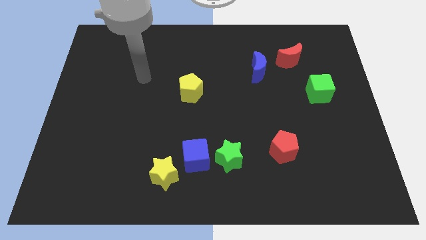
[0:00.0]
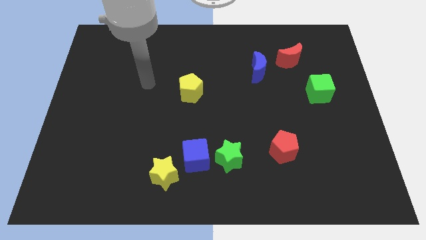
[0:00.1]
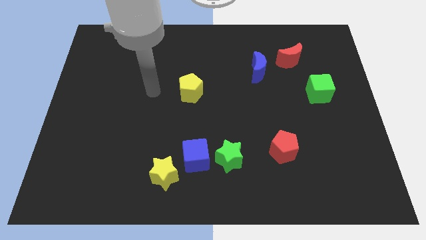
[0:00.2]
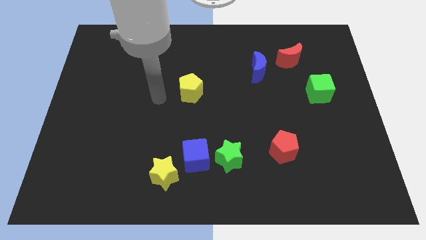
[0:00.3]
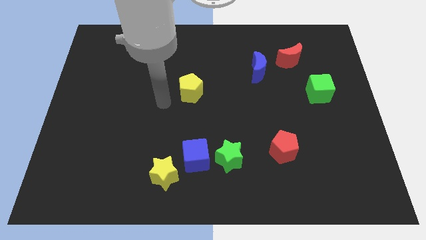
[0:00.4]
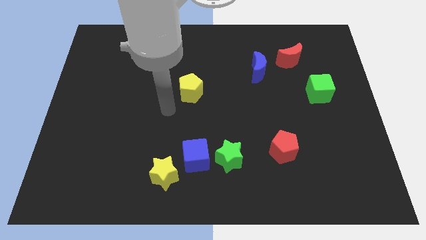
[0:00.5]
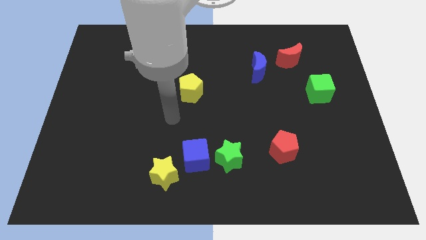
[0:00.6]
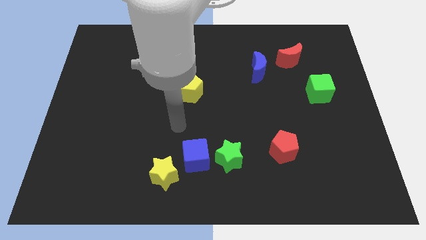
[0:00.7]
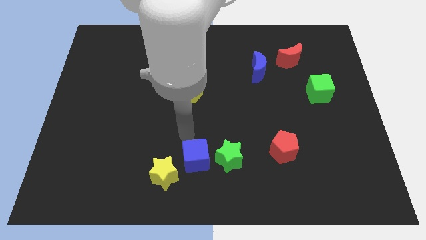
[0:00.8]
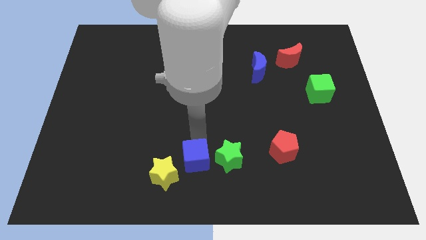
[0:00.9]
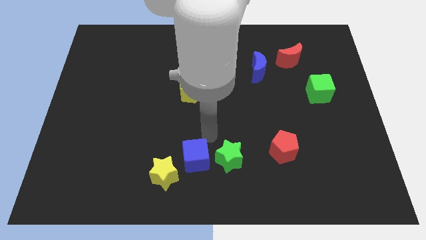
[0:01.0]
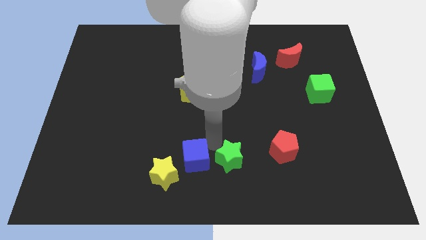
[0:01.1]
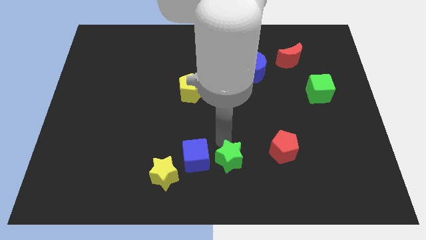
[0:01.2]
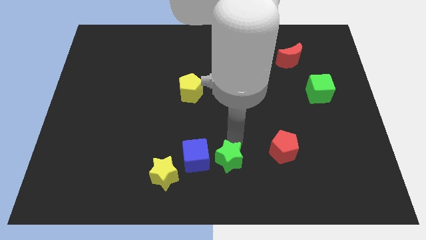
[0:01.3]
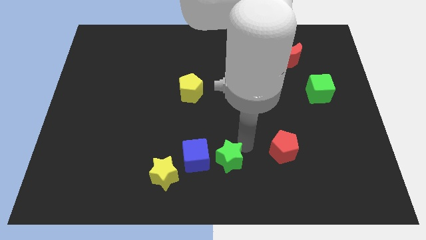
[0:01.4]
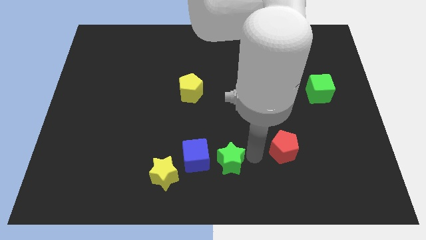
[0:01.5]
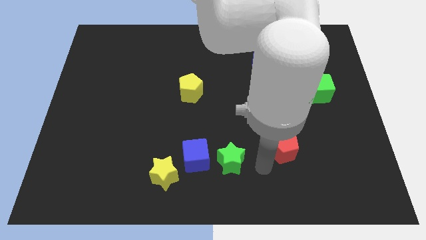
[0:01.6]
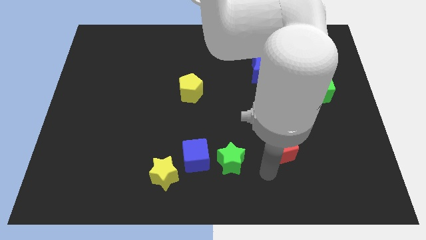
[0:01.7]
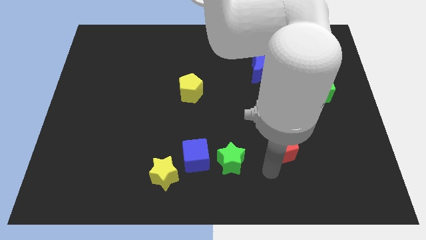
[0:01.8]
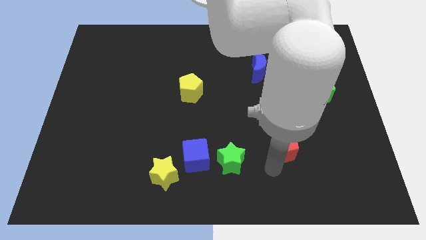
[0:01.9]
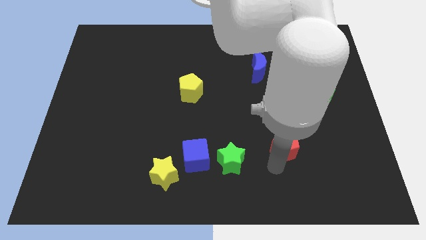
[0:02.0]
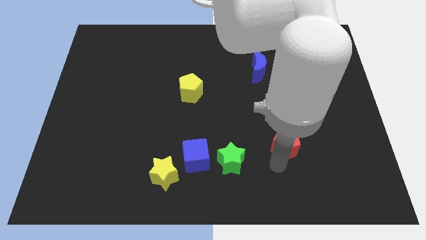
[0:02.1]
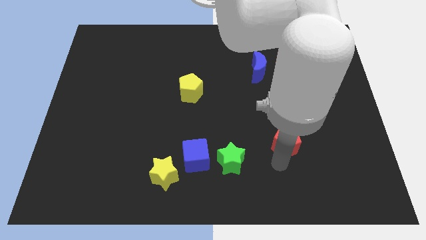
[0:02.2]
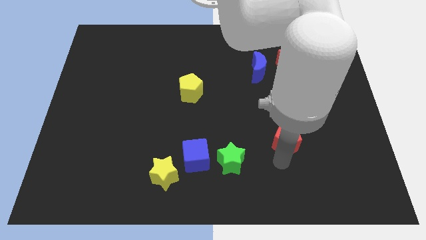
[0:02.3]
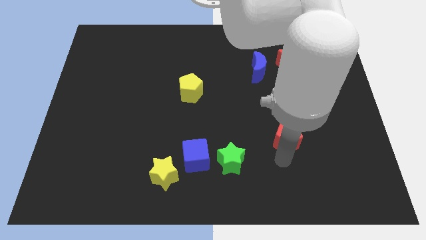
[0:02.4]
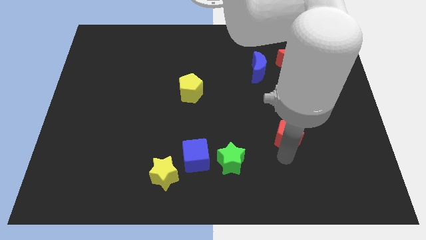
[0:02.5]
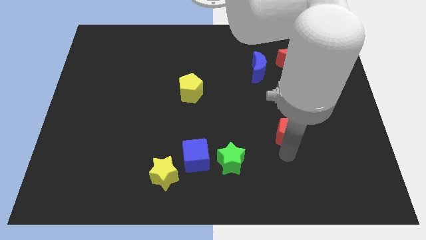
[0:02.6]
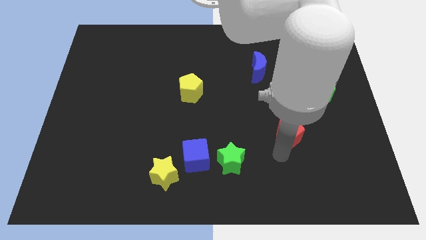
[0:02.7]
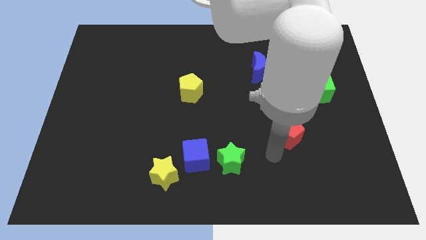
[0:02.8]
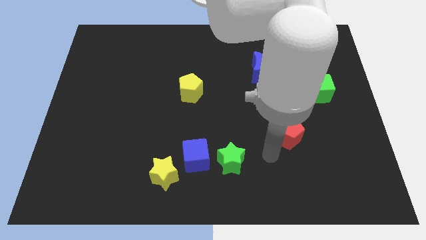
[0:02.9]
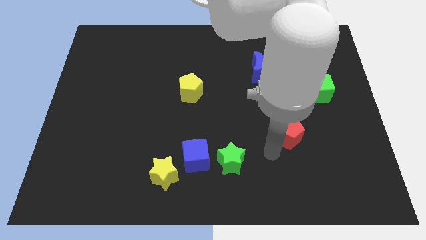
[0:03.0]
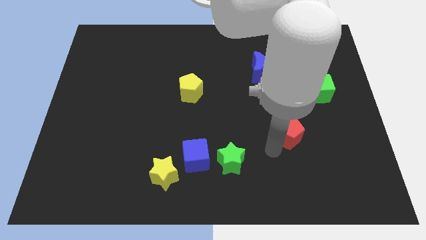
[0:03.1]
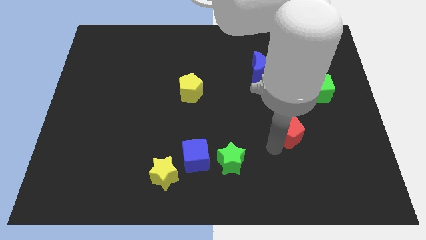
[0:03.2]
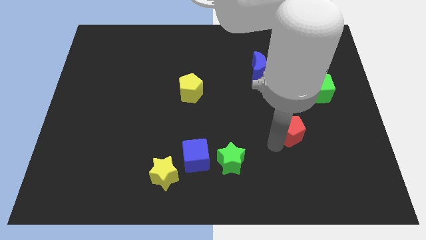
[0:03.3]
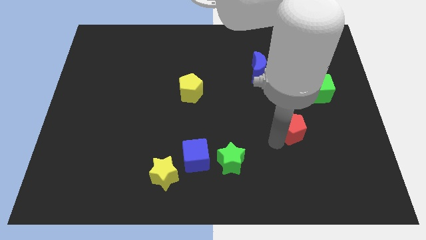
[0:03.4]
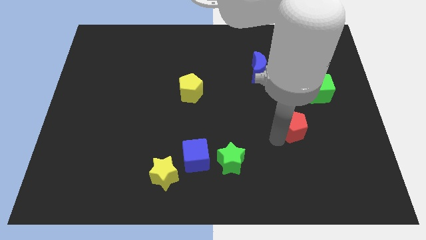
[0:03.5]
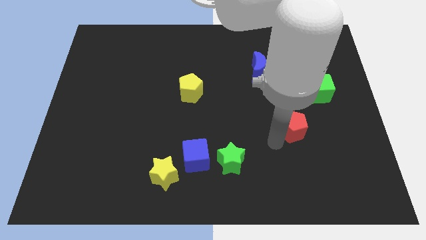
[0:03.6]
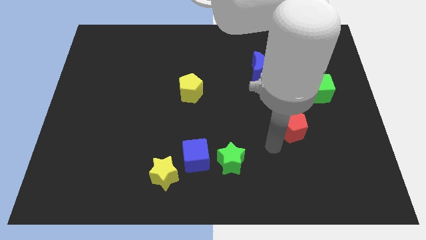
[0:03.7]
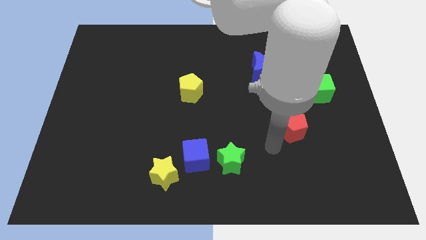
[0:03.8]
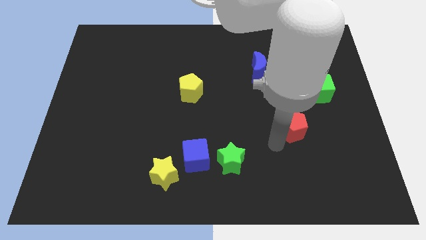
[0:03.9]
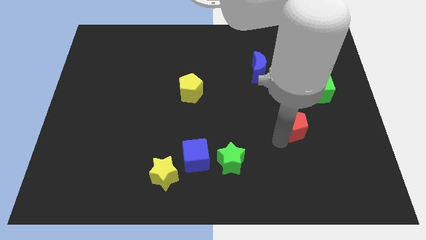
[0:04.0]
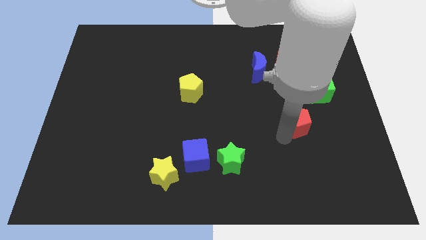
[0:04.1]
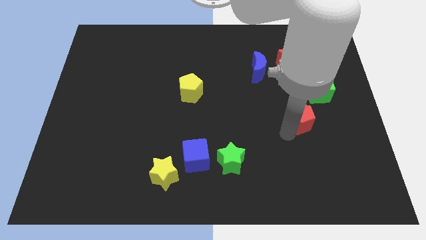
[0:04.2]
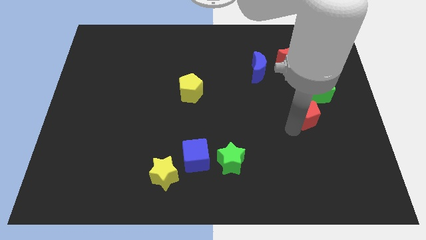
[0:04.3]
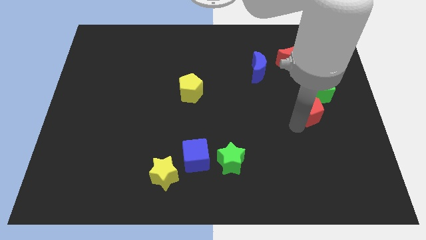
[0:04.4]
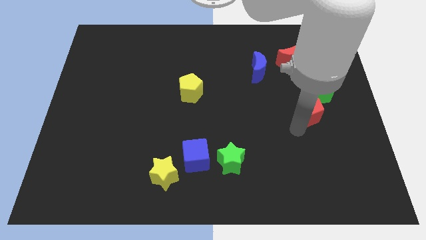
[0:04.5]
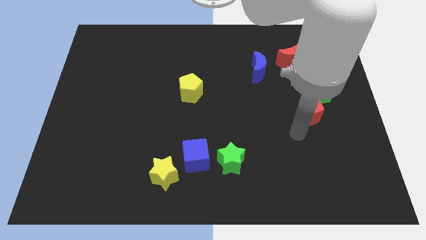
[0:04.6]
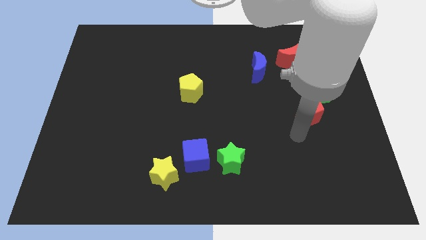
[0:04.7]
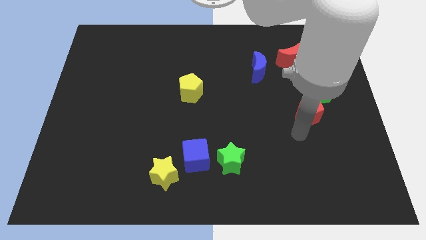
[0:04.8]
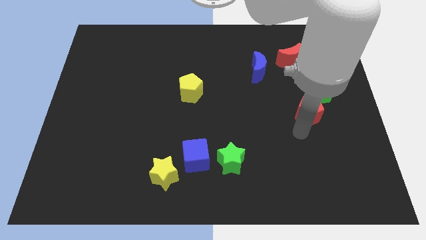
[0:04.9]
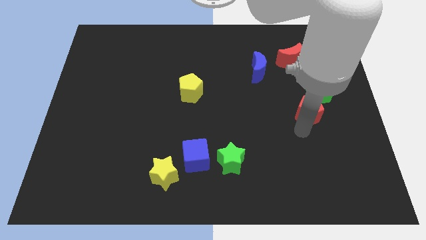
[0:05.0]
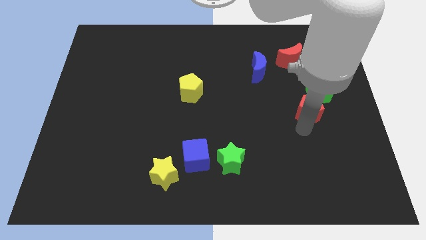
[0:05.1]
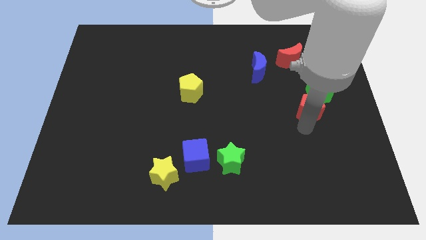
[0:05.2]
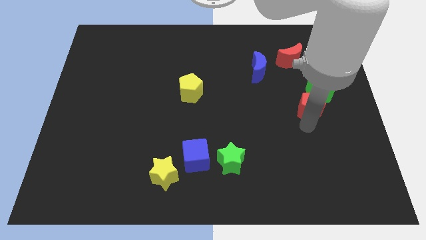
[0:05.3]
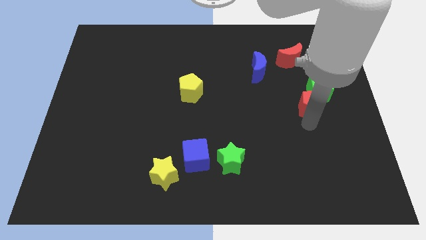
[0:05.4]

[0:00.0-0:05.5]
put the red pentagon to the green cube

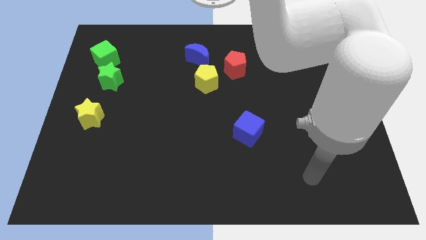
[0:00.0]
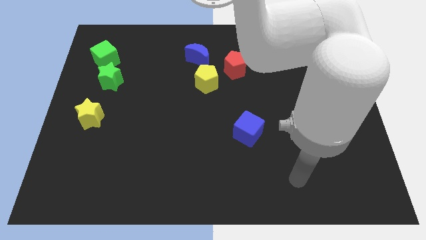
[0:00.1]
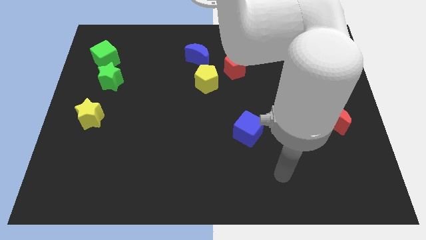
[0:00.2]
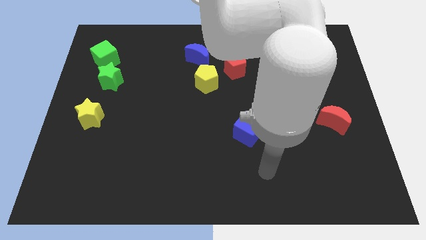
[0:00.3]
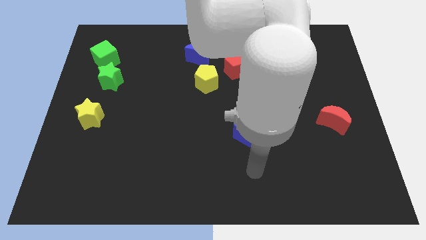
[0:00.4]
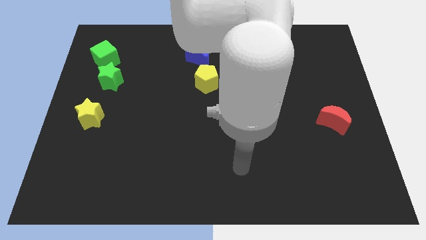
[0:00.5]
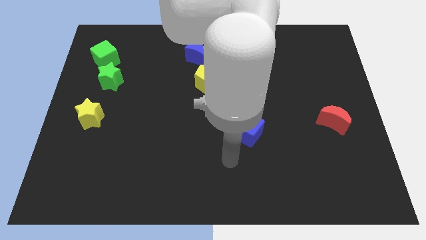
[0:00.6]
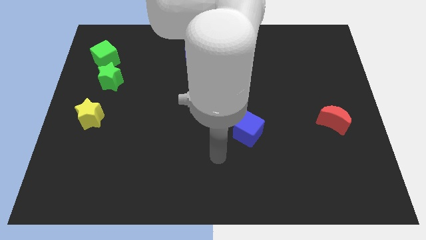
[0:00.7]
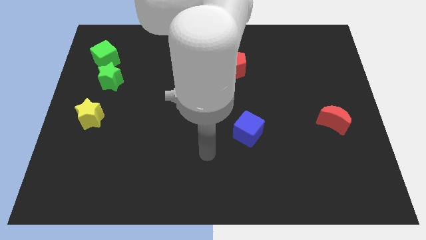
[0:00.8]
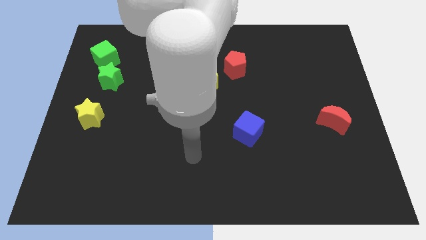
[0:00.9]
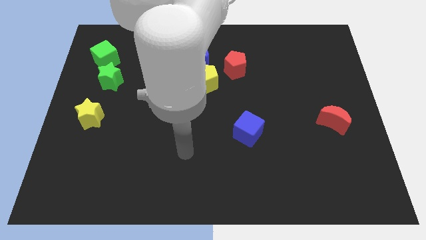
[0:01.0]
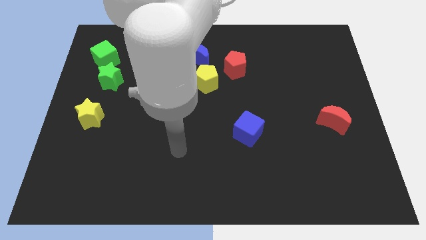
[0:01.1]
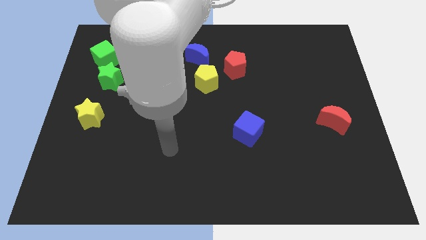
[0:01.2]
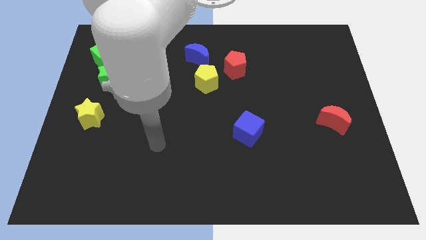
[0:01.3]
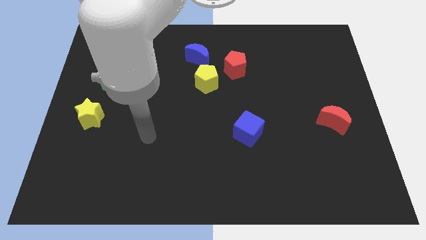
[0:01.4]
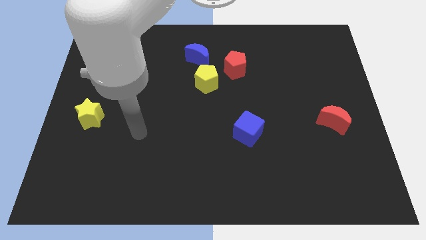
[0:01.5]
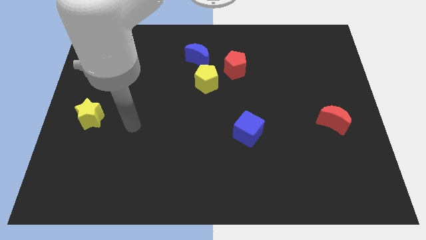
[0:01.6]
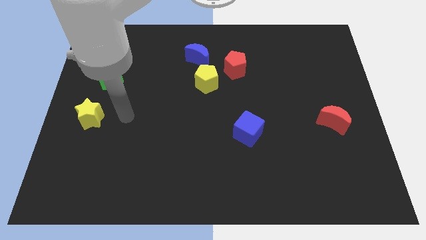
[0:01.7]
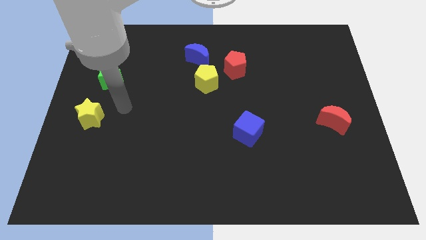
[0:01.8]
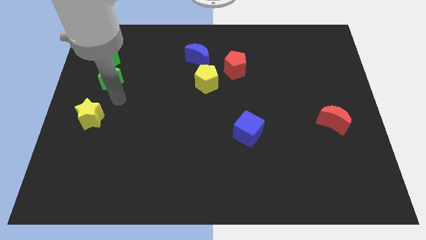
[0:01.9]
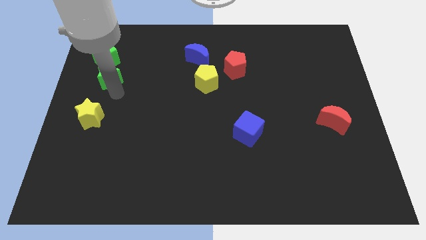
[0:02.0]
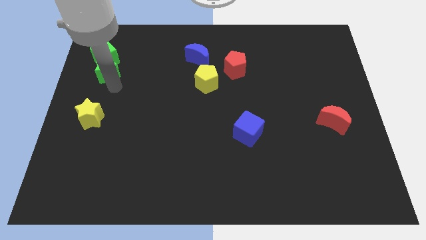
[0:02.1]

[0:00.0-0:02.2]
slide the green star close to the green cube

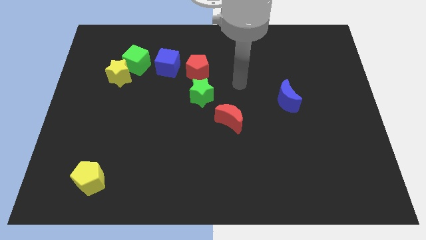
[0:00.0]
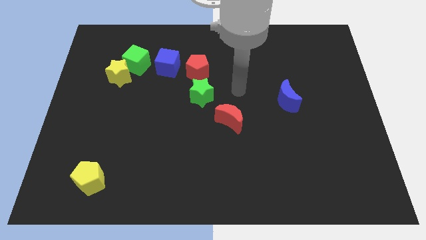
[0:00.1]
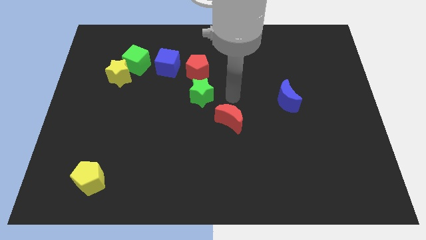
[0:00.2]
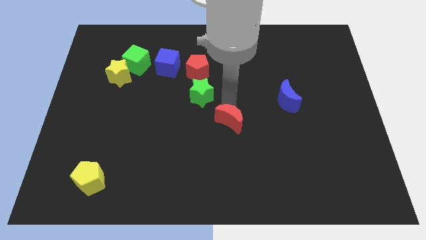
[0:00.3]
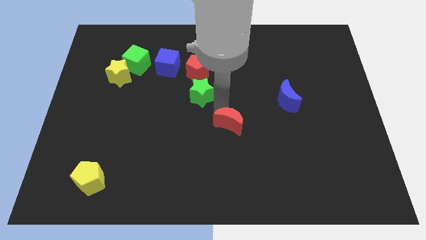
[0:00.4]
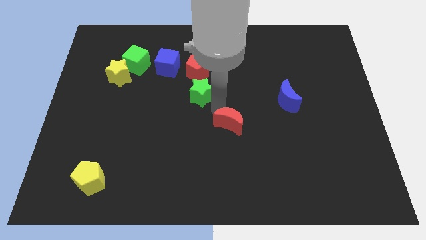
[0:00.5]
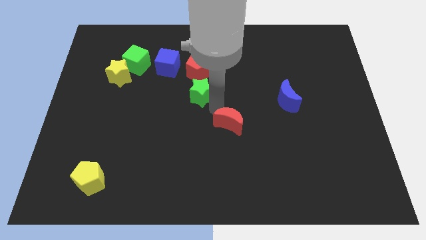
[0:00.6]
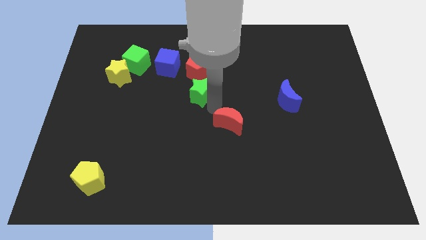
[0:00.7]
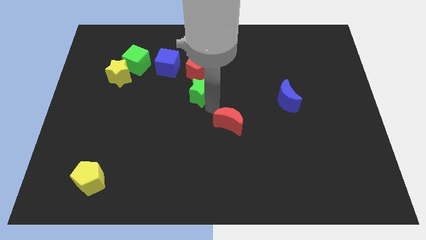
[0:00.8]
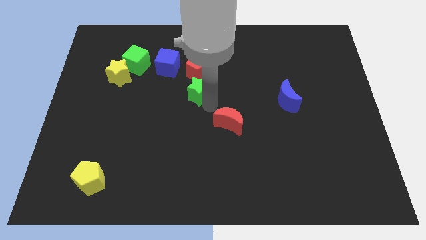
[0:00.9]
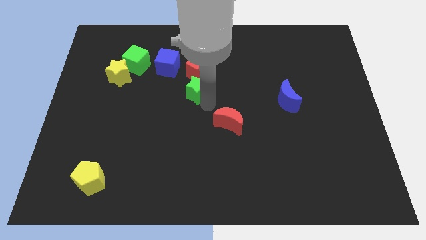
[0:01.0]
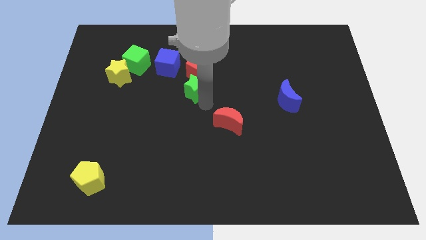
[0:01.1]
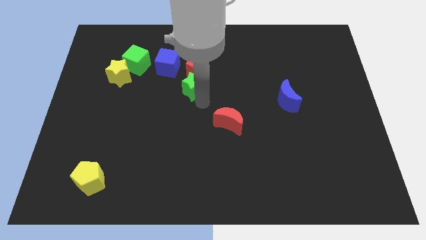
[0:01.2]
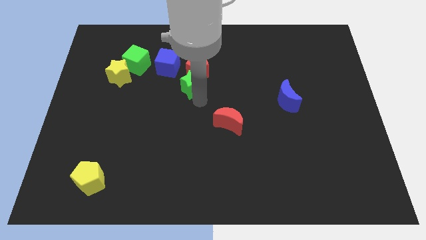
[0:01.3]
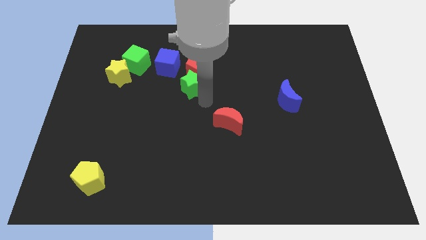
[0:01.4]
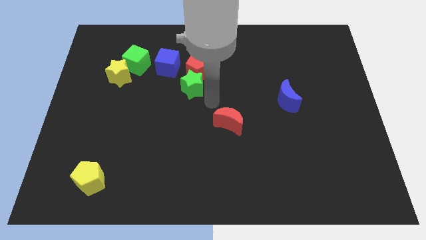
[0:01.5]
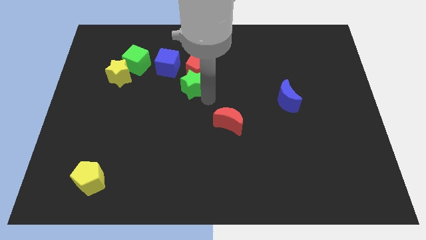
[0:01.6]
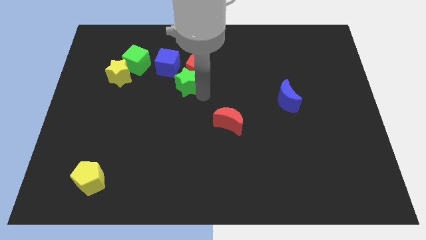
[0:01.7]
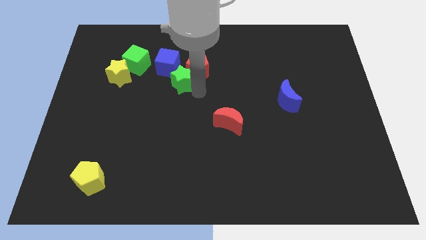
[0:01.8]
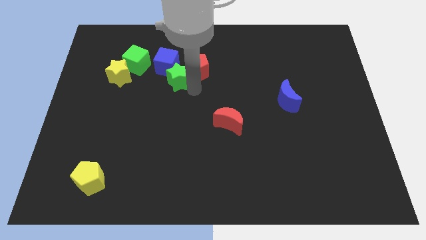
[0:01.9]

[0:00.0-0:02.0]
put the green star to the blue cube
